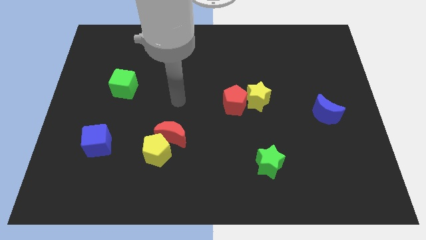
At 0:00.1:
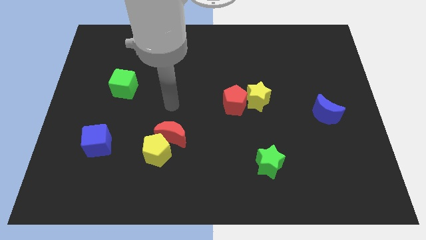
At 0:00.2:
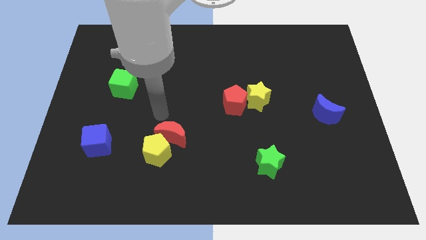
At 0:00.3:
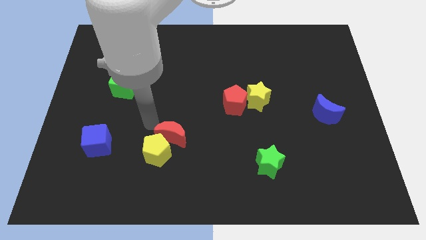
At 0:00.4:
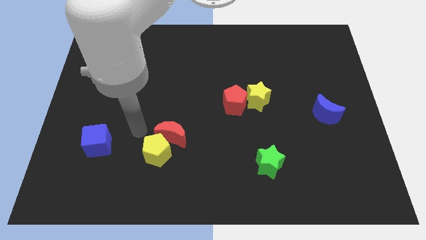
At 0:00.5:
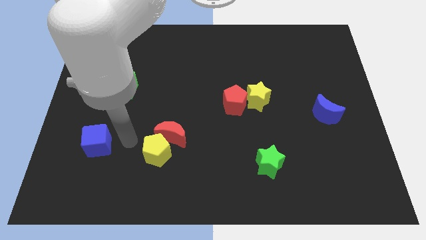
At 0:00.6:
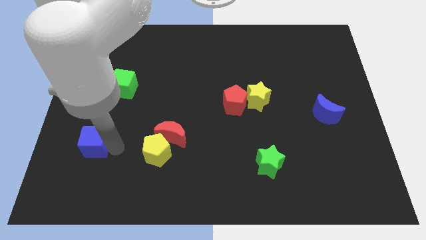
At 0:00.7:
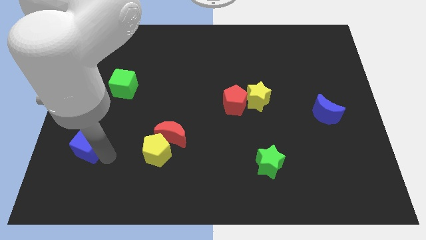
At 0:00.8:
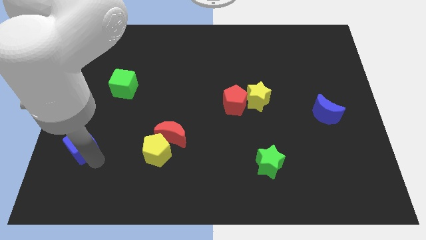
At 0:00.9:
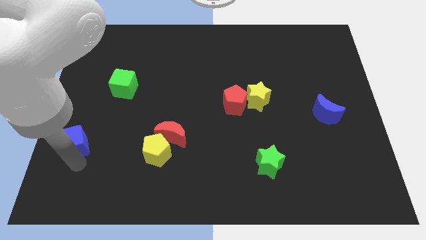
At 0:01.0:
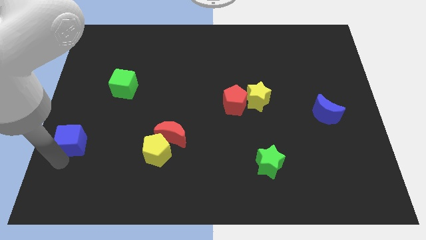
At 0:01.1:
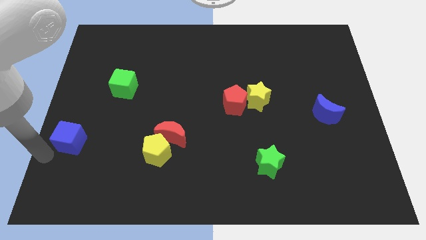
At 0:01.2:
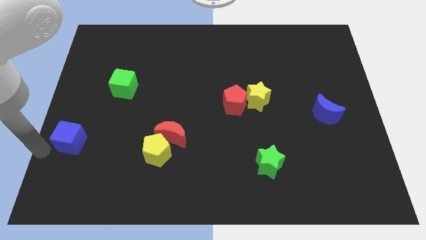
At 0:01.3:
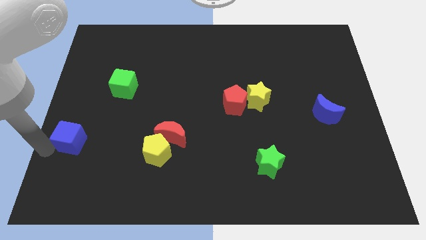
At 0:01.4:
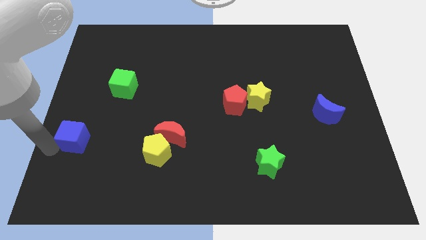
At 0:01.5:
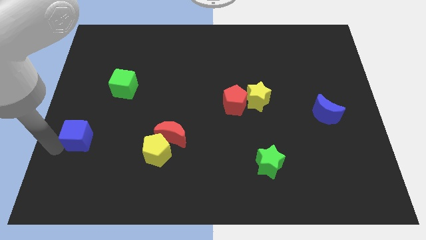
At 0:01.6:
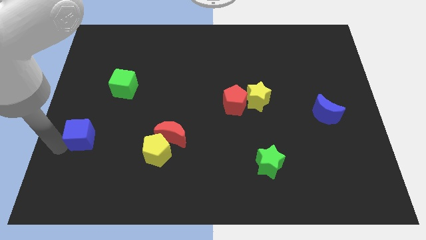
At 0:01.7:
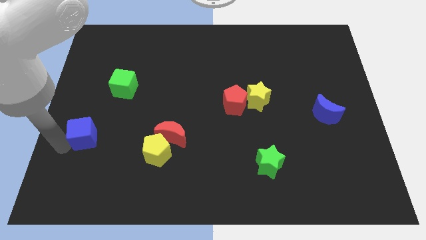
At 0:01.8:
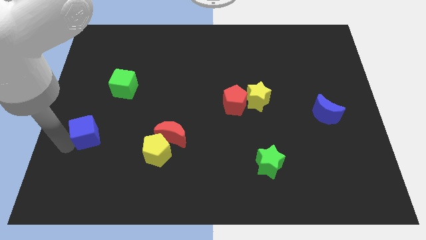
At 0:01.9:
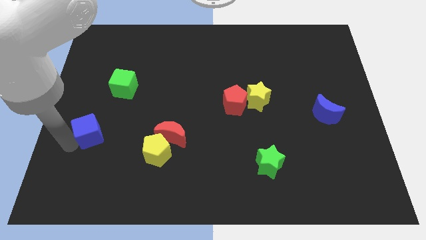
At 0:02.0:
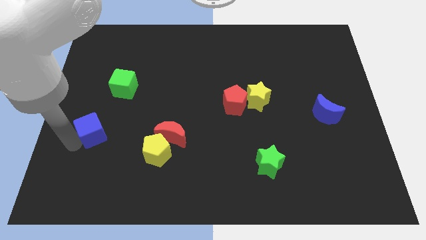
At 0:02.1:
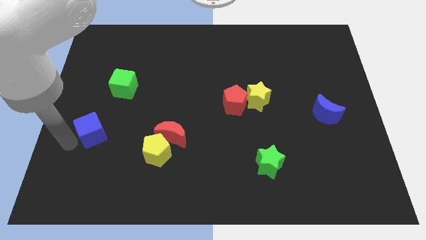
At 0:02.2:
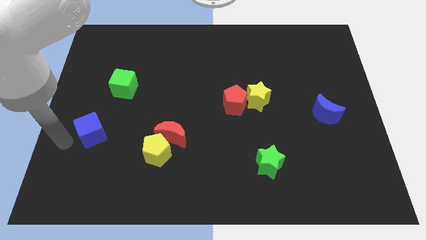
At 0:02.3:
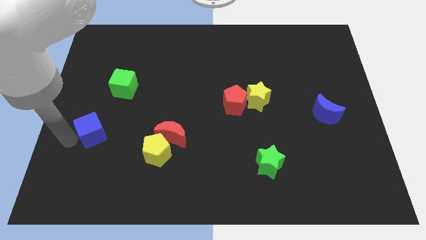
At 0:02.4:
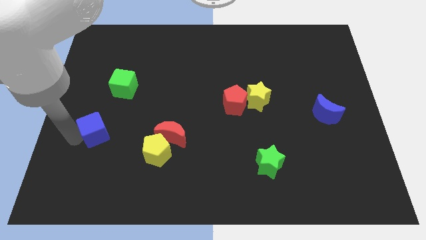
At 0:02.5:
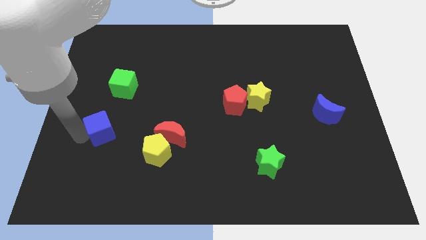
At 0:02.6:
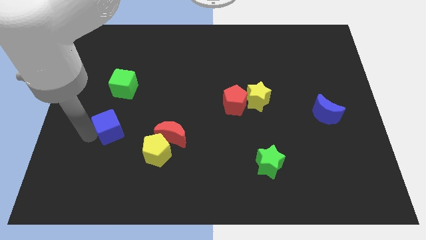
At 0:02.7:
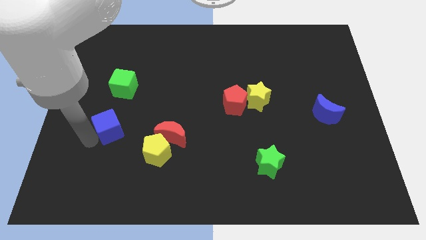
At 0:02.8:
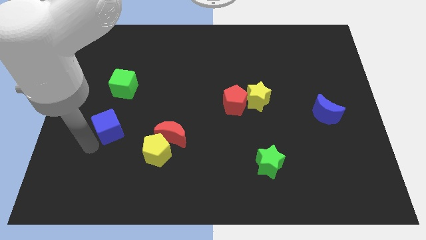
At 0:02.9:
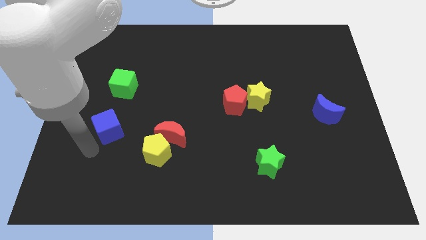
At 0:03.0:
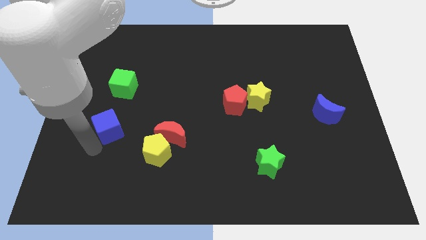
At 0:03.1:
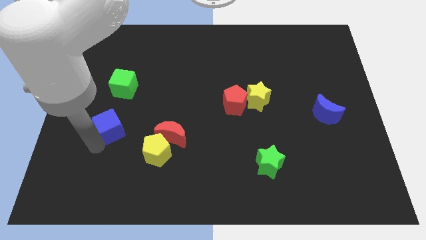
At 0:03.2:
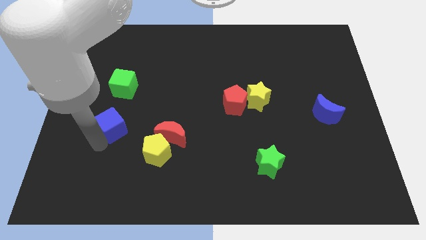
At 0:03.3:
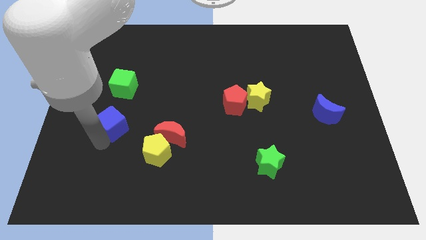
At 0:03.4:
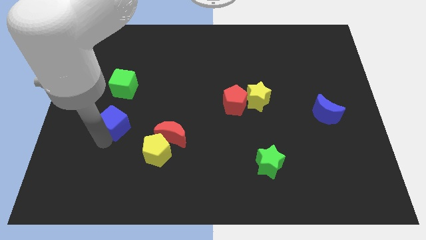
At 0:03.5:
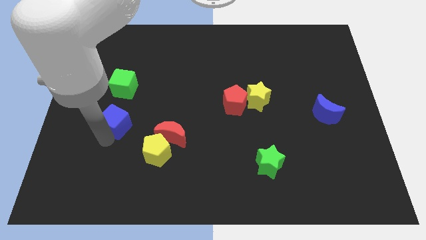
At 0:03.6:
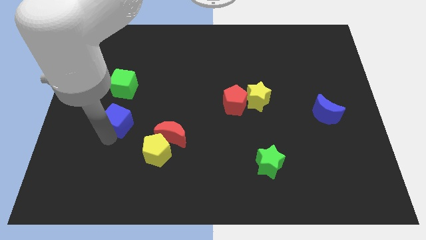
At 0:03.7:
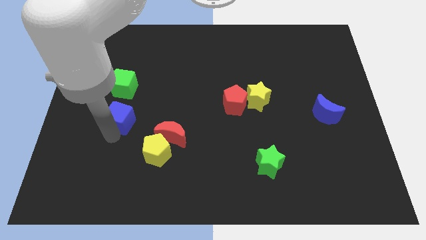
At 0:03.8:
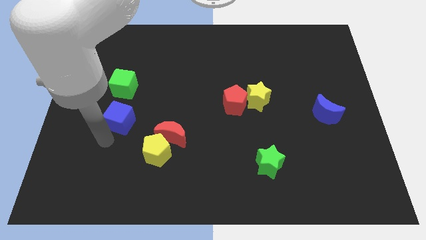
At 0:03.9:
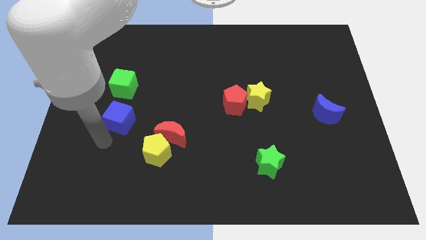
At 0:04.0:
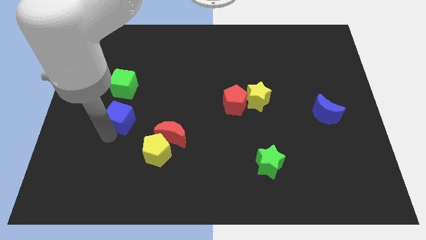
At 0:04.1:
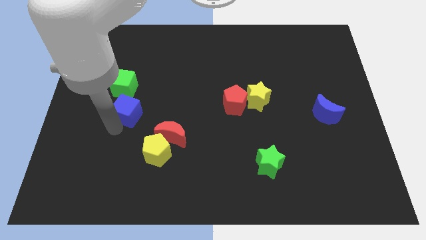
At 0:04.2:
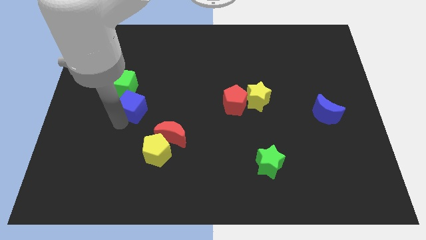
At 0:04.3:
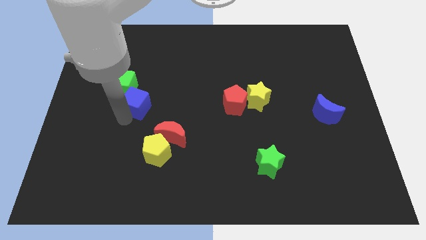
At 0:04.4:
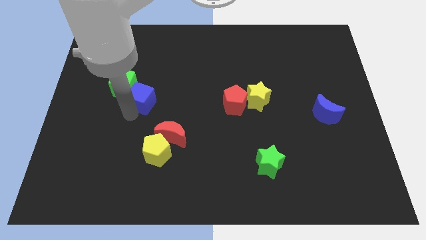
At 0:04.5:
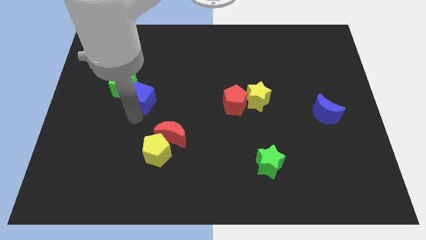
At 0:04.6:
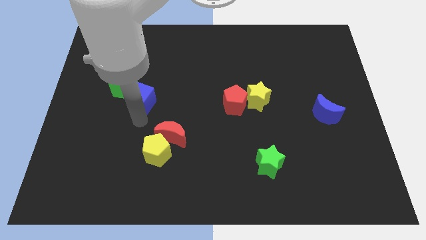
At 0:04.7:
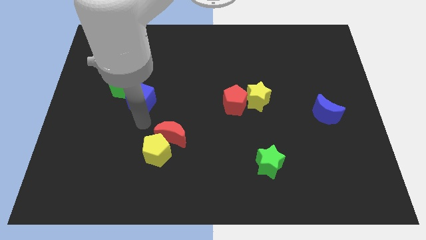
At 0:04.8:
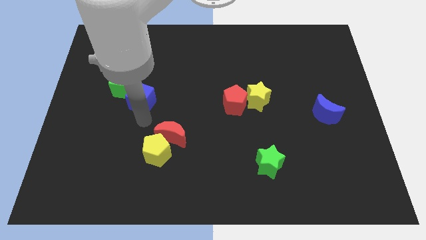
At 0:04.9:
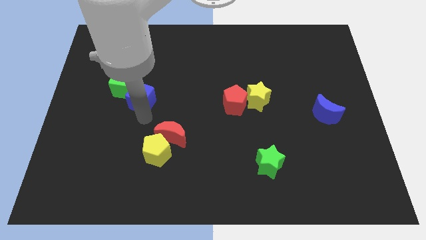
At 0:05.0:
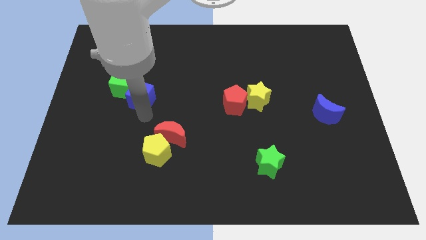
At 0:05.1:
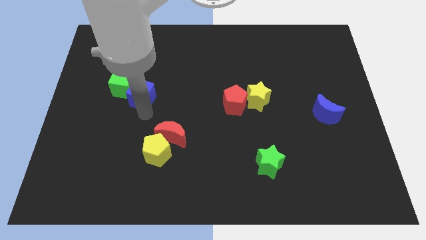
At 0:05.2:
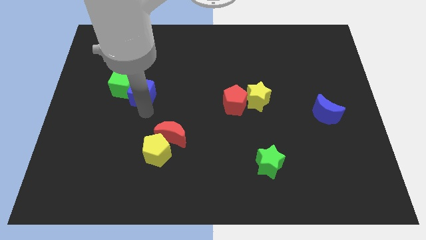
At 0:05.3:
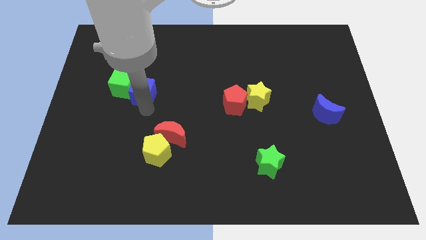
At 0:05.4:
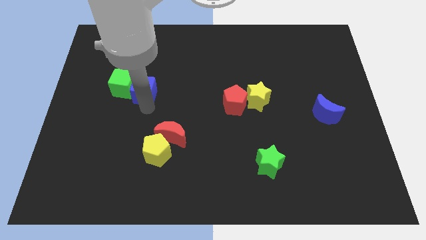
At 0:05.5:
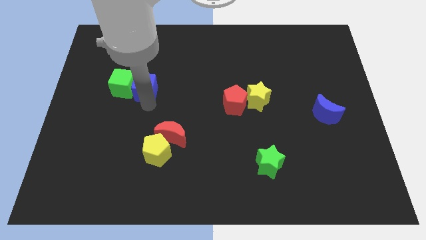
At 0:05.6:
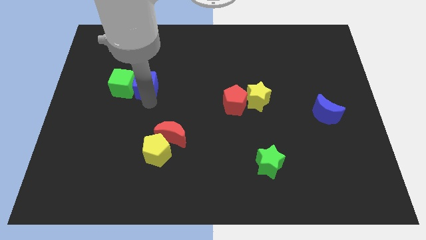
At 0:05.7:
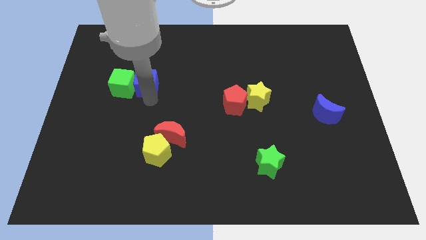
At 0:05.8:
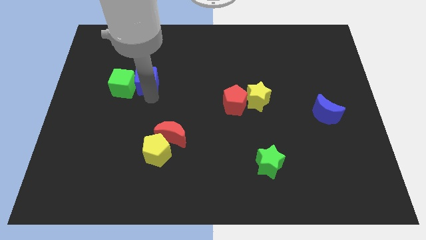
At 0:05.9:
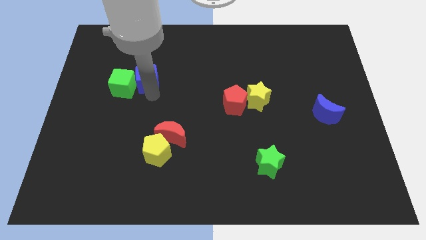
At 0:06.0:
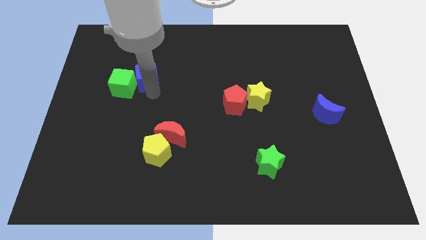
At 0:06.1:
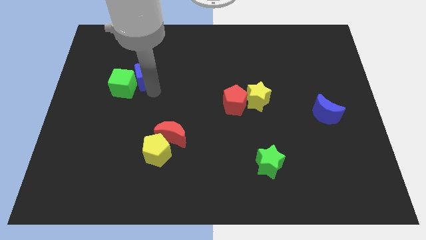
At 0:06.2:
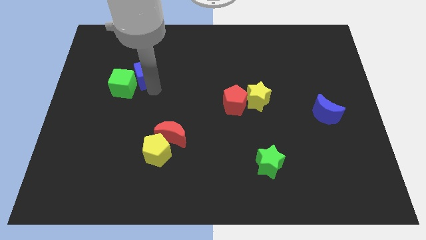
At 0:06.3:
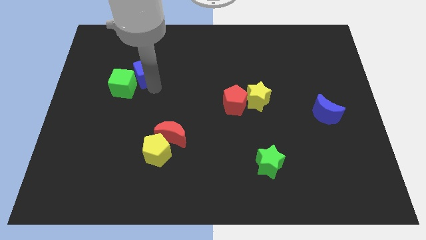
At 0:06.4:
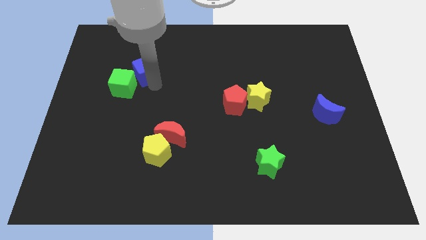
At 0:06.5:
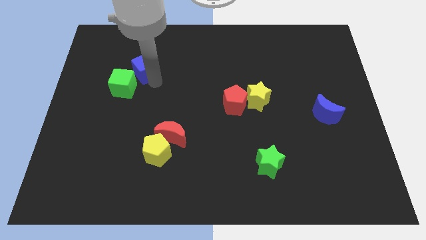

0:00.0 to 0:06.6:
move the blue cube above the green cube
